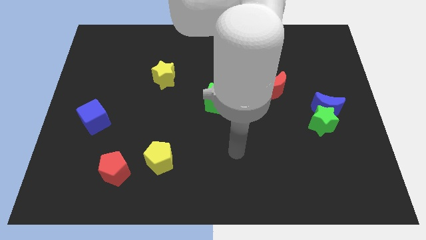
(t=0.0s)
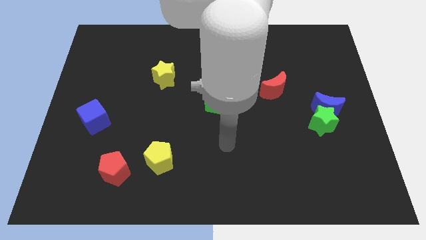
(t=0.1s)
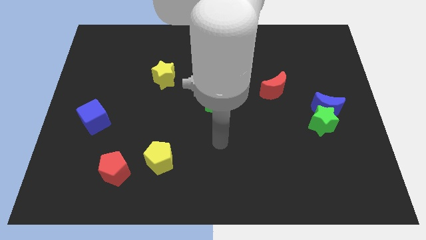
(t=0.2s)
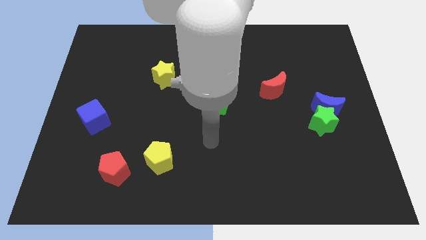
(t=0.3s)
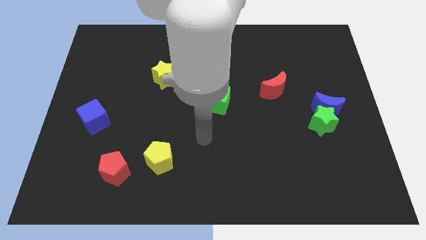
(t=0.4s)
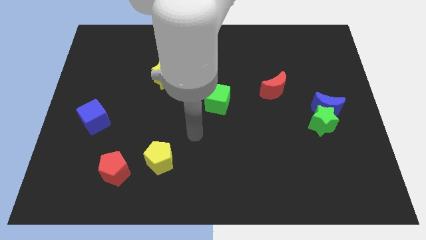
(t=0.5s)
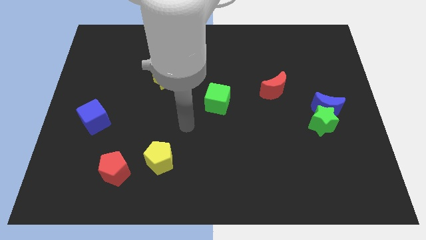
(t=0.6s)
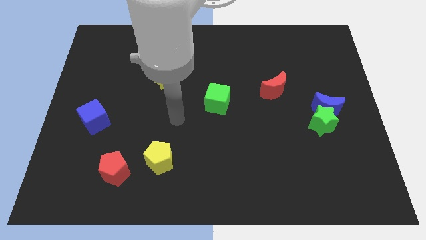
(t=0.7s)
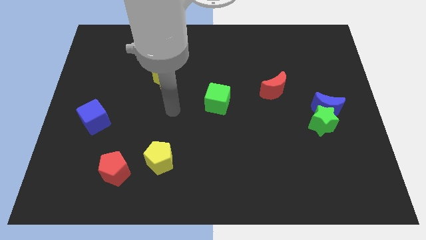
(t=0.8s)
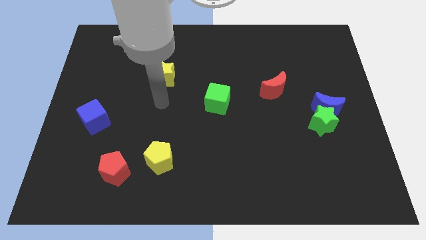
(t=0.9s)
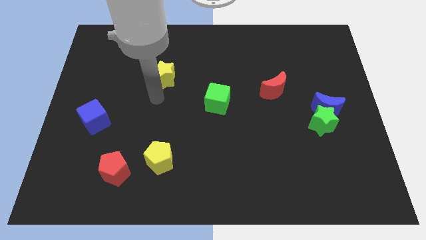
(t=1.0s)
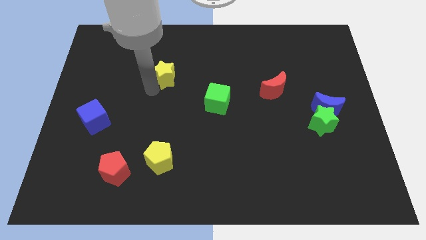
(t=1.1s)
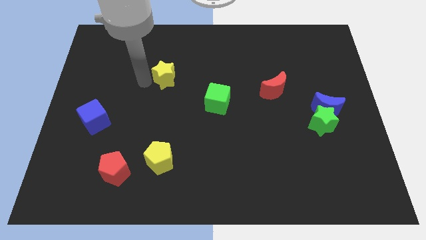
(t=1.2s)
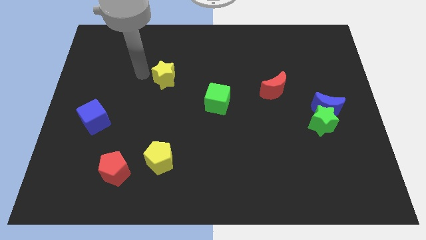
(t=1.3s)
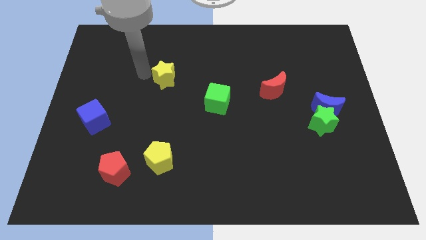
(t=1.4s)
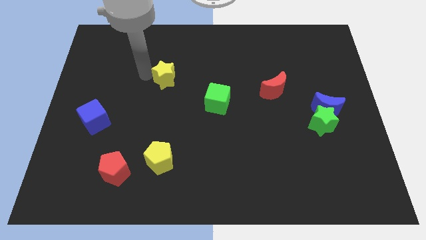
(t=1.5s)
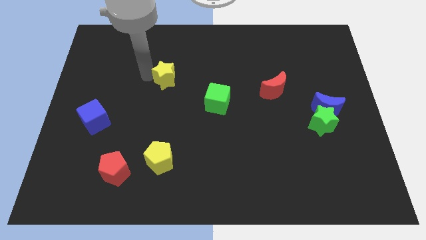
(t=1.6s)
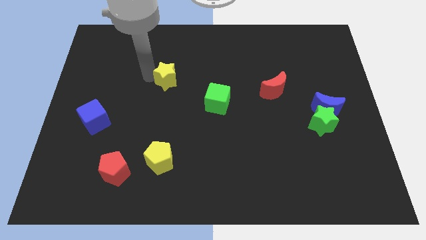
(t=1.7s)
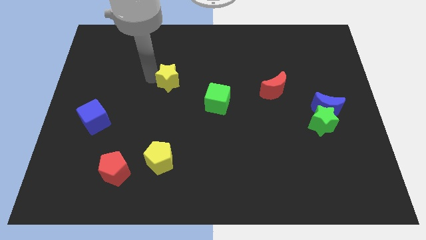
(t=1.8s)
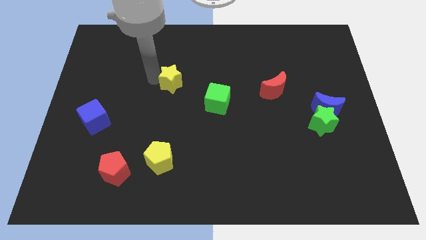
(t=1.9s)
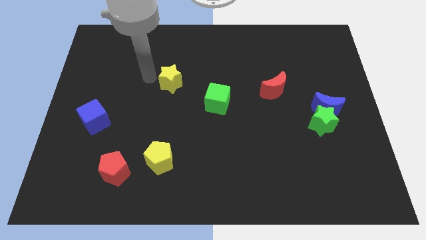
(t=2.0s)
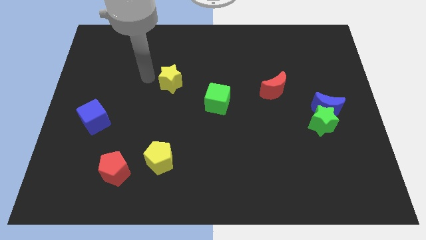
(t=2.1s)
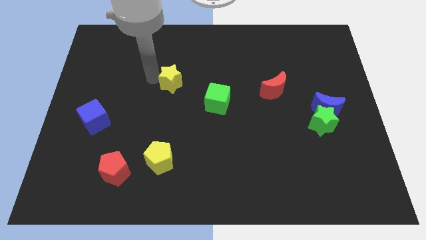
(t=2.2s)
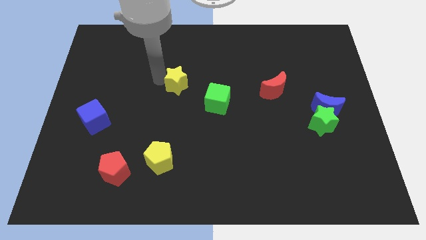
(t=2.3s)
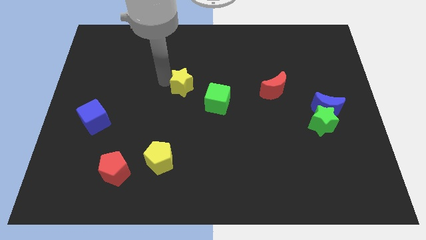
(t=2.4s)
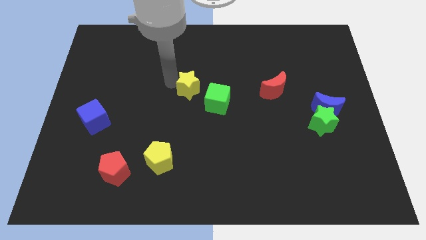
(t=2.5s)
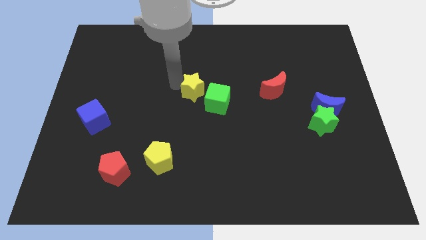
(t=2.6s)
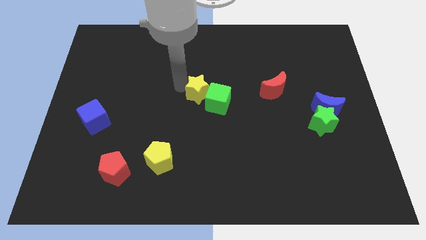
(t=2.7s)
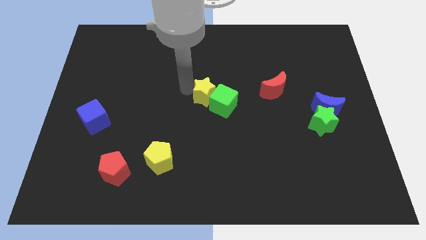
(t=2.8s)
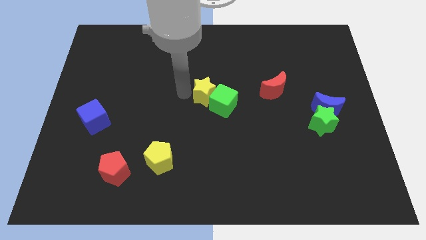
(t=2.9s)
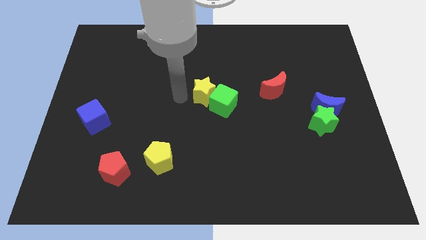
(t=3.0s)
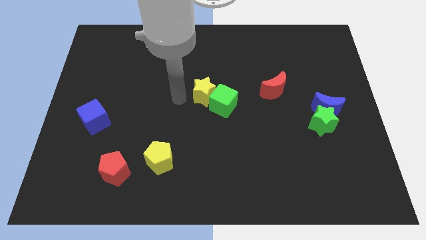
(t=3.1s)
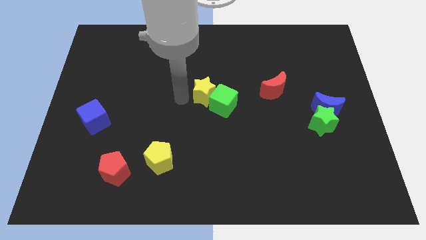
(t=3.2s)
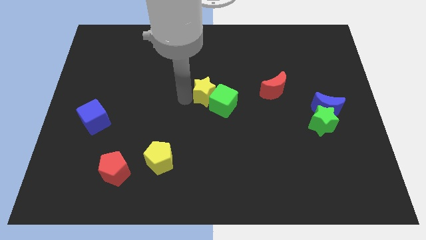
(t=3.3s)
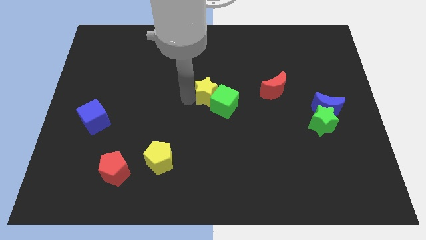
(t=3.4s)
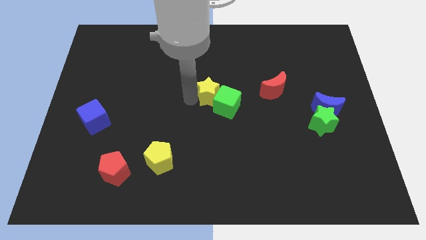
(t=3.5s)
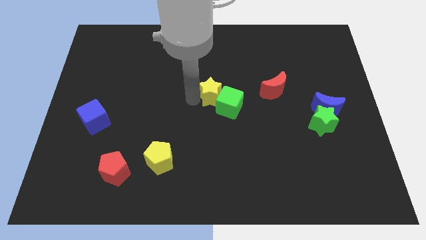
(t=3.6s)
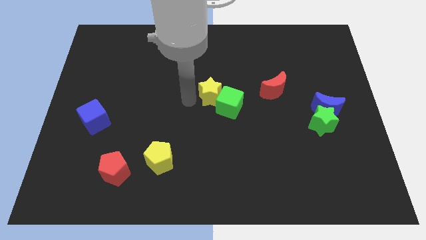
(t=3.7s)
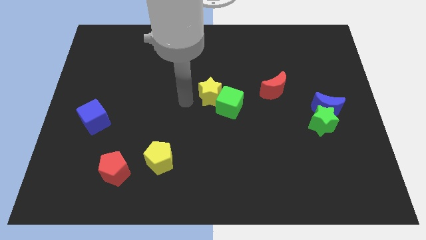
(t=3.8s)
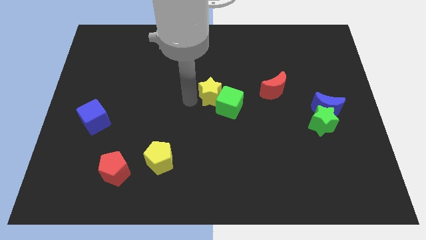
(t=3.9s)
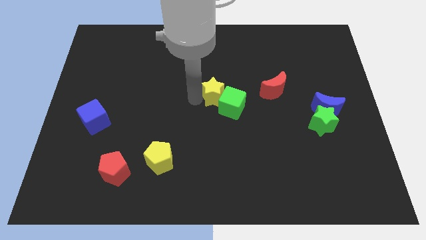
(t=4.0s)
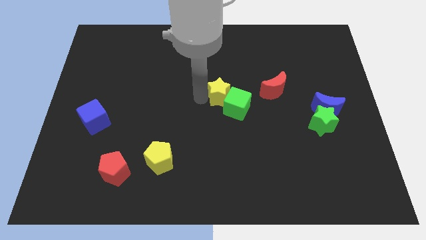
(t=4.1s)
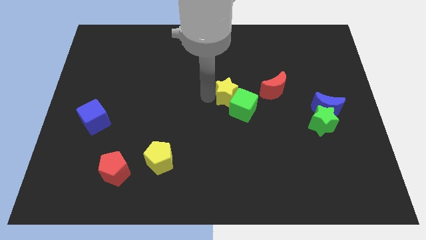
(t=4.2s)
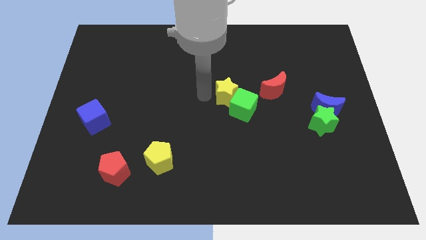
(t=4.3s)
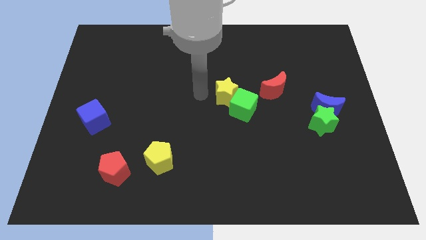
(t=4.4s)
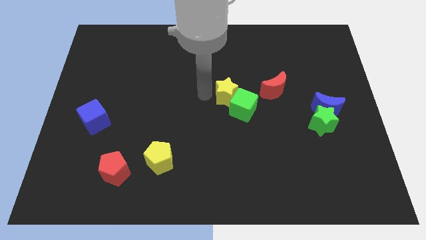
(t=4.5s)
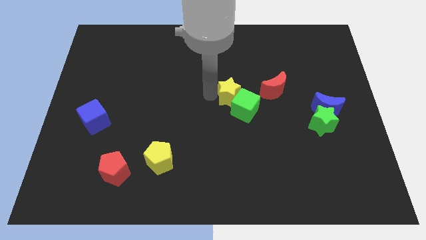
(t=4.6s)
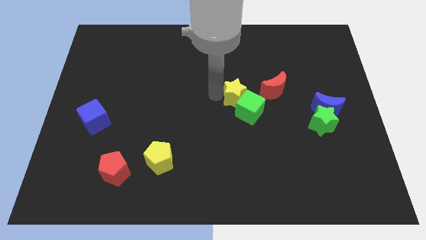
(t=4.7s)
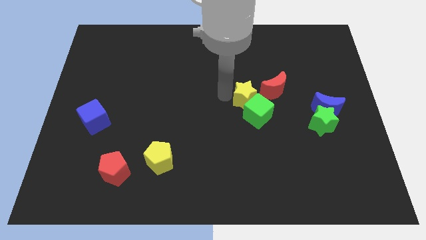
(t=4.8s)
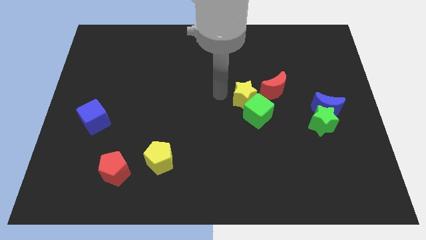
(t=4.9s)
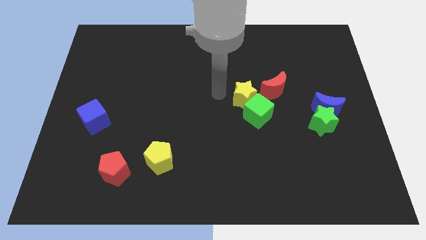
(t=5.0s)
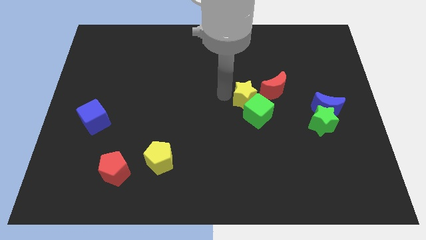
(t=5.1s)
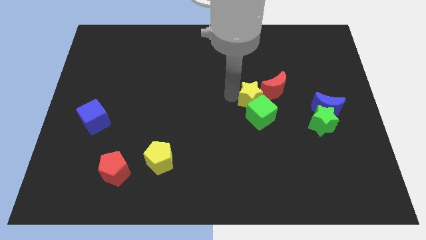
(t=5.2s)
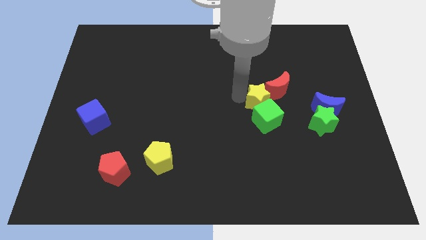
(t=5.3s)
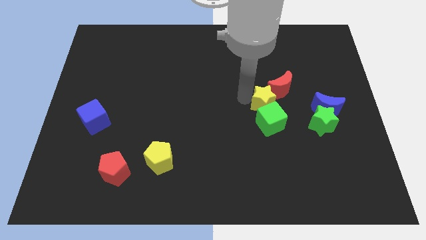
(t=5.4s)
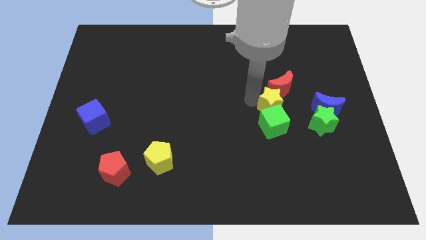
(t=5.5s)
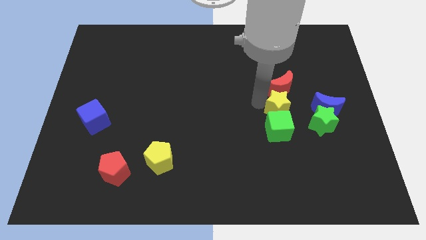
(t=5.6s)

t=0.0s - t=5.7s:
move the yellow star to the top left side of the green star

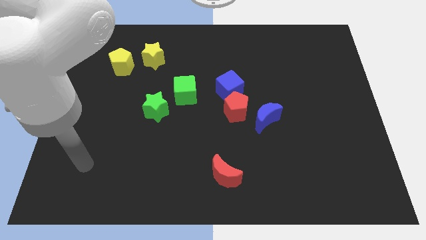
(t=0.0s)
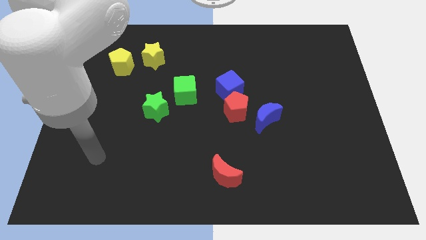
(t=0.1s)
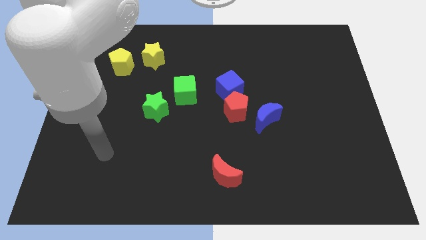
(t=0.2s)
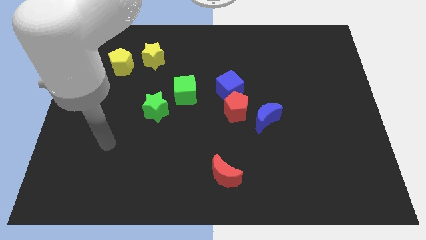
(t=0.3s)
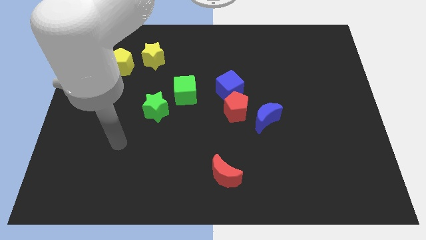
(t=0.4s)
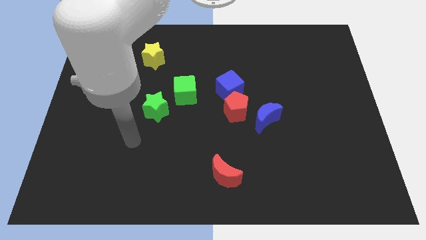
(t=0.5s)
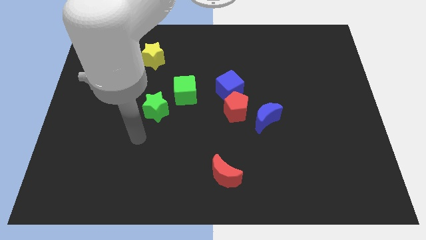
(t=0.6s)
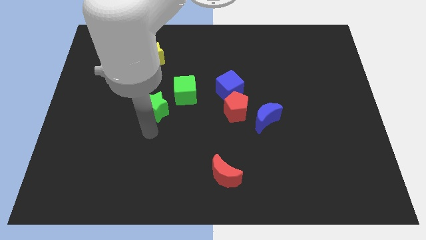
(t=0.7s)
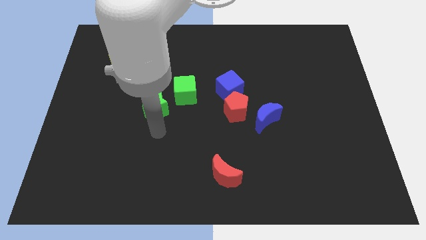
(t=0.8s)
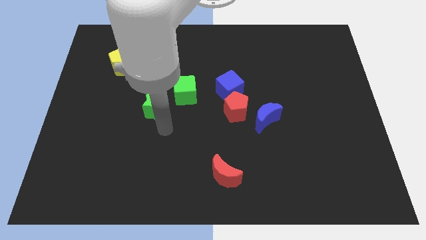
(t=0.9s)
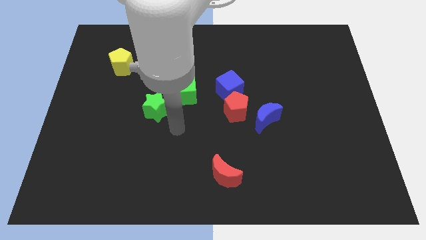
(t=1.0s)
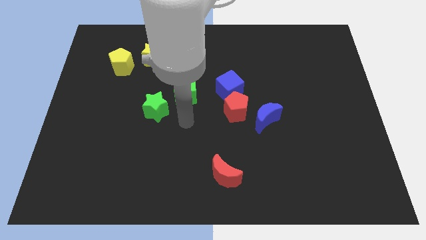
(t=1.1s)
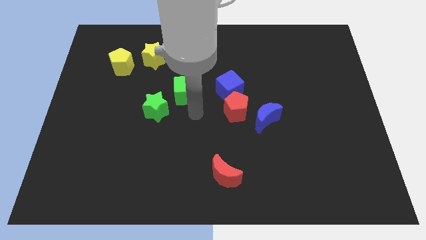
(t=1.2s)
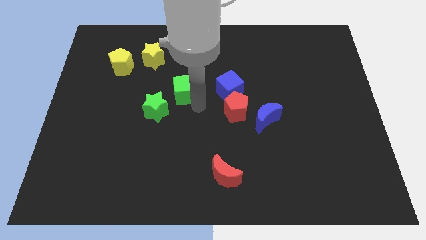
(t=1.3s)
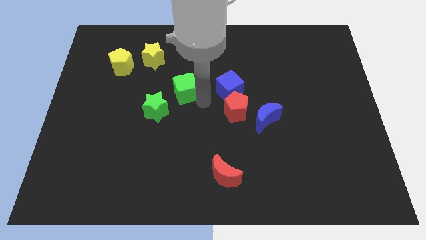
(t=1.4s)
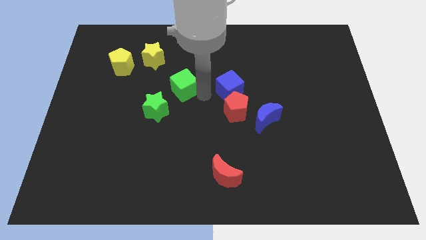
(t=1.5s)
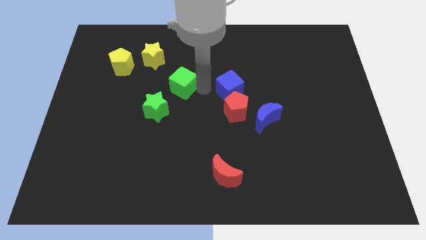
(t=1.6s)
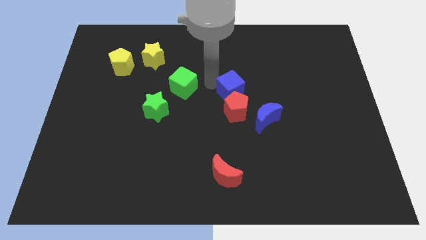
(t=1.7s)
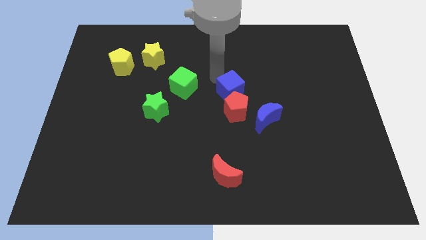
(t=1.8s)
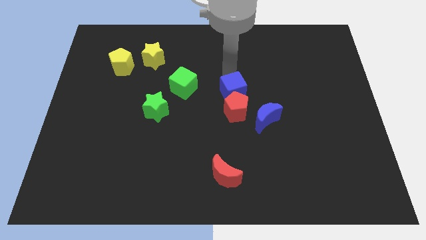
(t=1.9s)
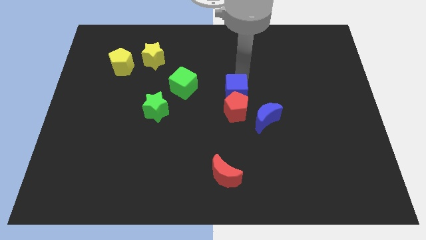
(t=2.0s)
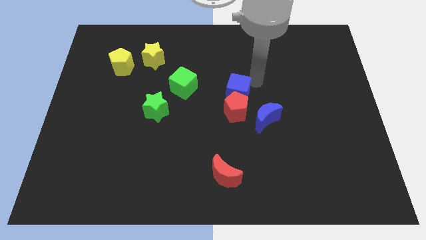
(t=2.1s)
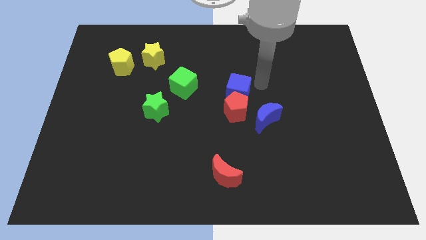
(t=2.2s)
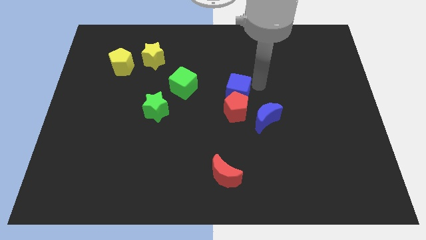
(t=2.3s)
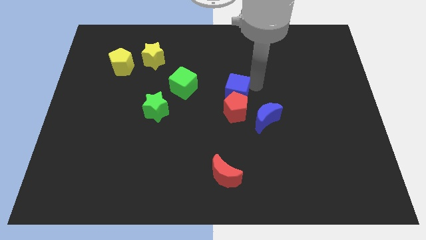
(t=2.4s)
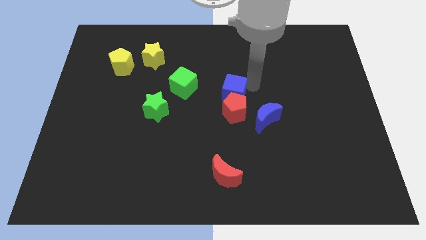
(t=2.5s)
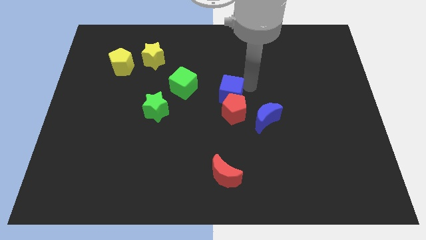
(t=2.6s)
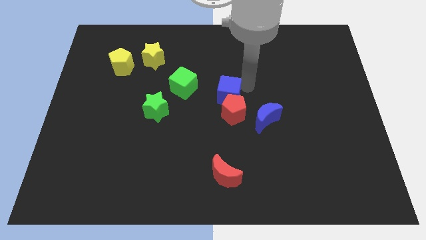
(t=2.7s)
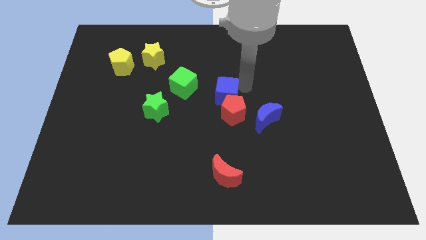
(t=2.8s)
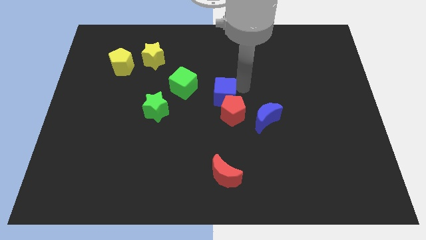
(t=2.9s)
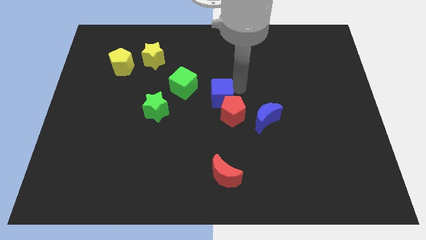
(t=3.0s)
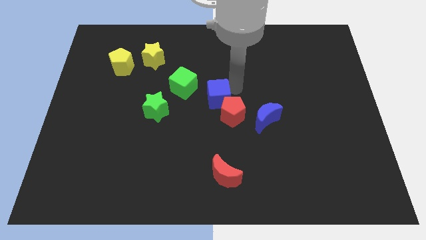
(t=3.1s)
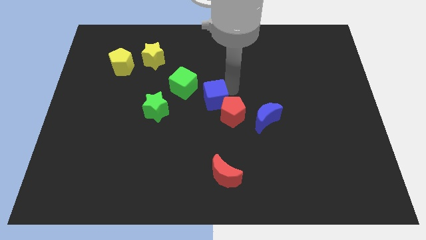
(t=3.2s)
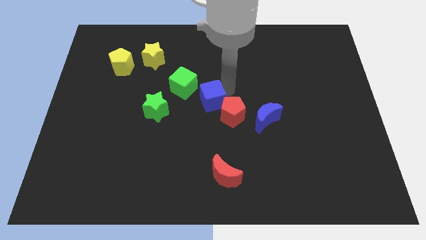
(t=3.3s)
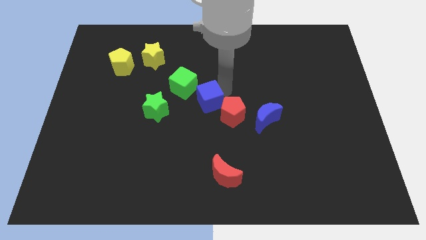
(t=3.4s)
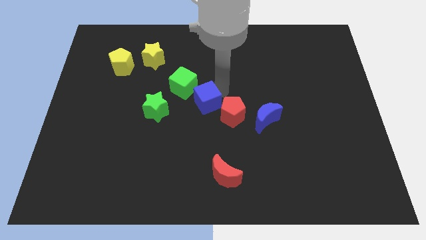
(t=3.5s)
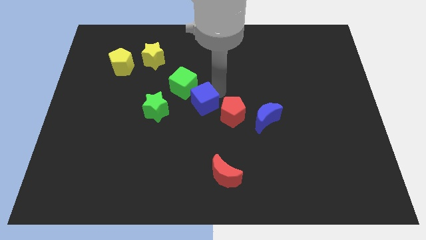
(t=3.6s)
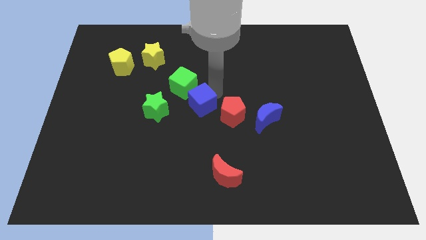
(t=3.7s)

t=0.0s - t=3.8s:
push the blue cube below the green cube
